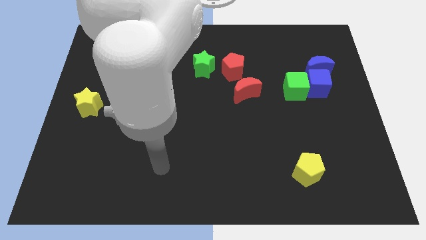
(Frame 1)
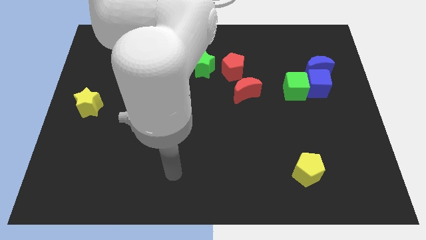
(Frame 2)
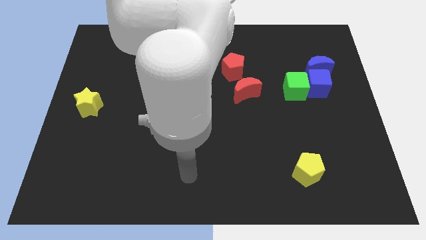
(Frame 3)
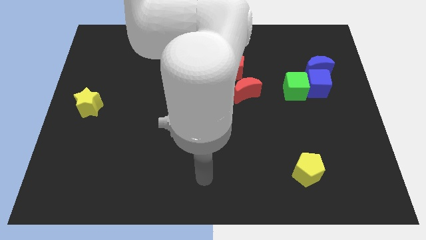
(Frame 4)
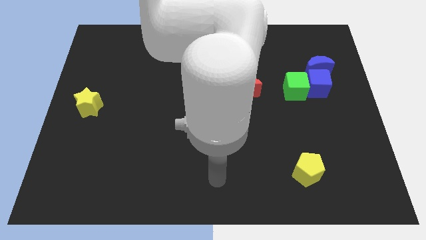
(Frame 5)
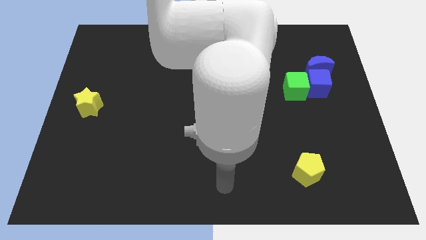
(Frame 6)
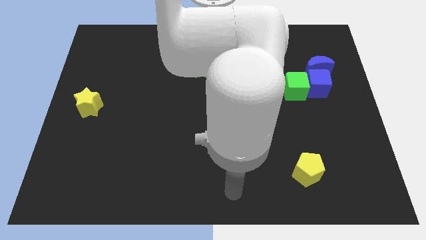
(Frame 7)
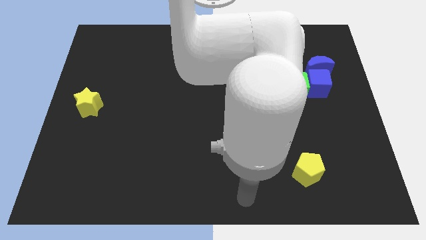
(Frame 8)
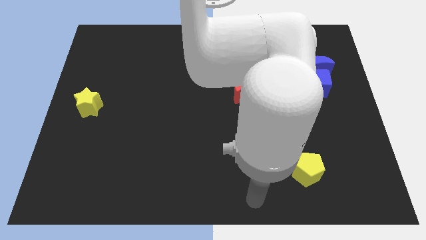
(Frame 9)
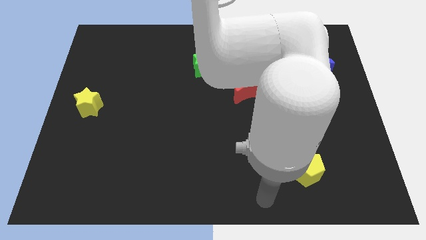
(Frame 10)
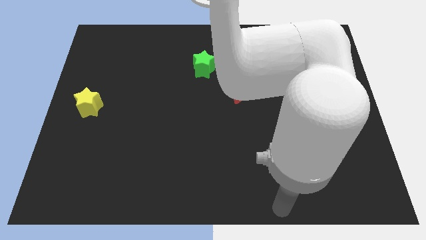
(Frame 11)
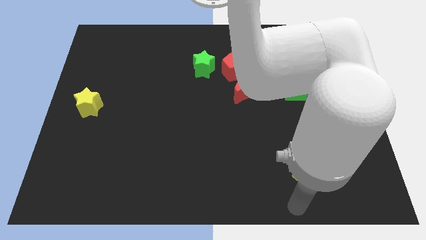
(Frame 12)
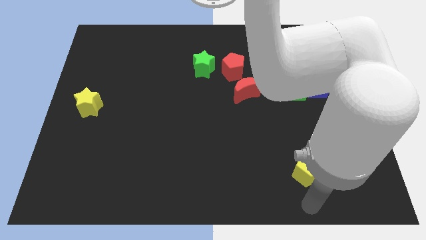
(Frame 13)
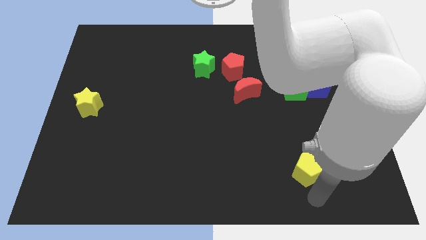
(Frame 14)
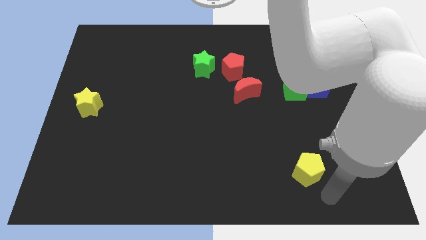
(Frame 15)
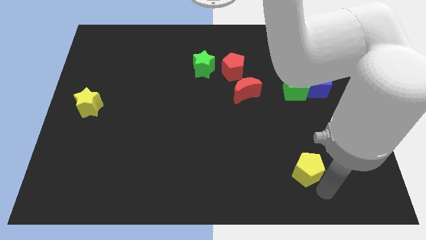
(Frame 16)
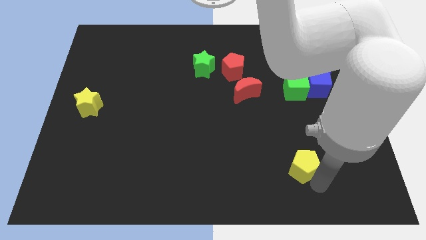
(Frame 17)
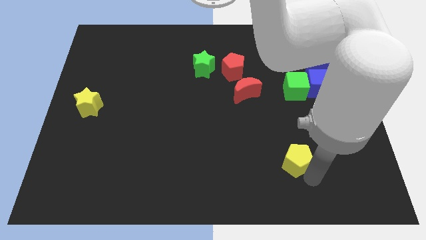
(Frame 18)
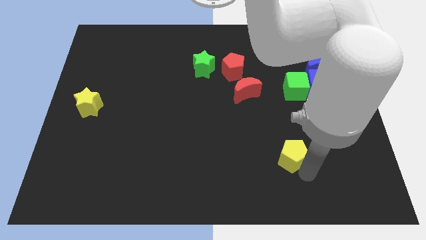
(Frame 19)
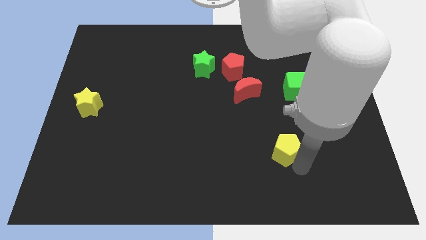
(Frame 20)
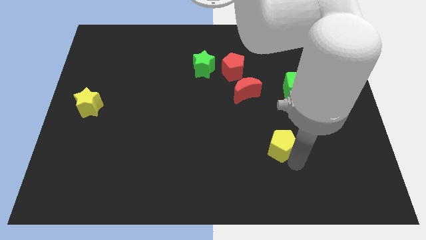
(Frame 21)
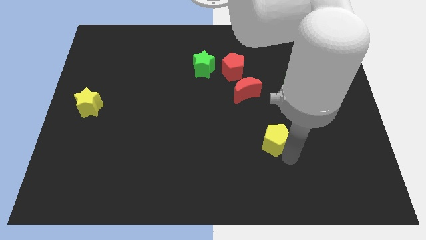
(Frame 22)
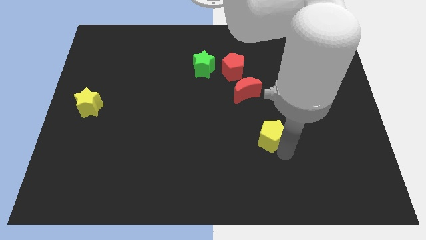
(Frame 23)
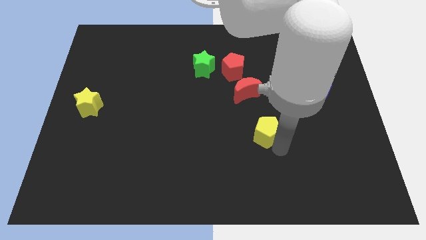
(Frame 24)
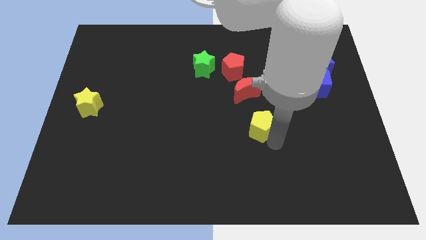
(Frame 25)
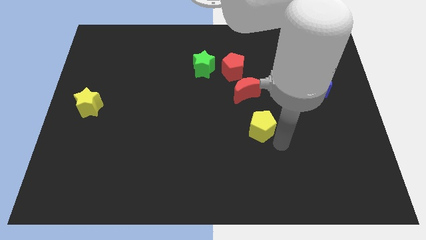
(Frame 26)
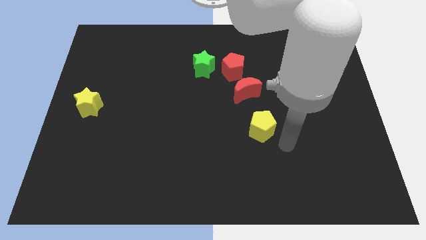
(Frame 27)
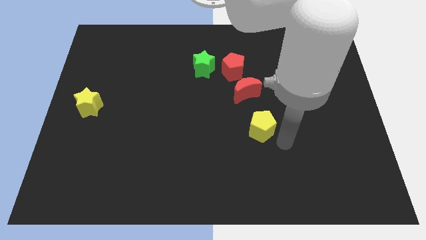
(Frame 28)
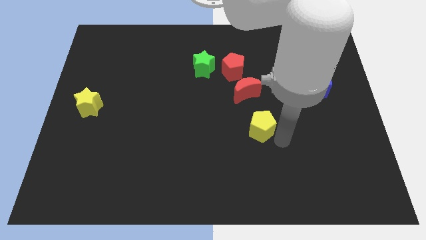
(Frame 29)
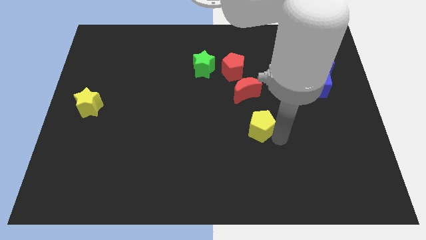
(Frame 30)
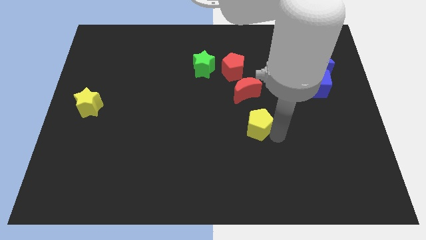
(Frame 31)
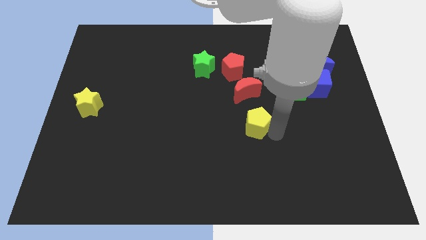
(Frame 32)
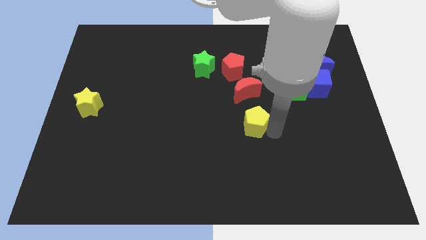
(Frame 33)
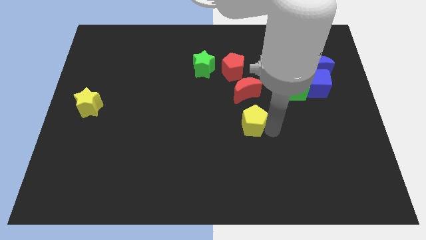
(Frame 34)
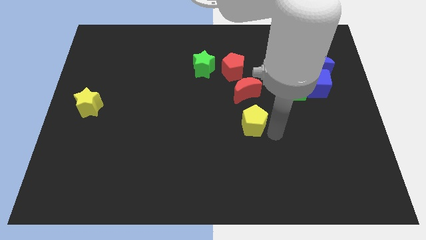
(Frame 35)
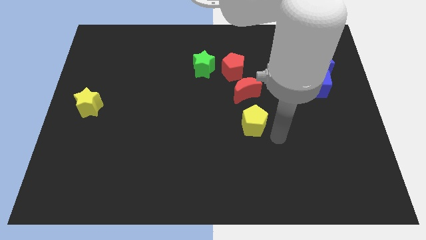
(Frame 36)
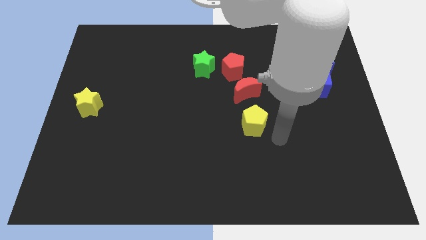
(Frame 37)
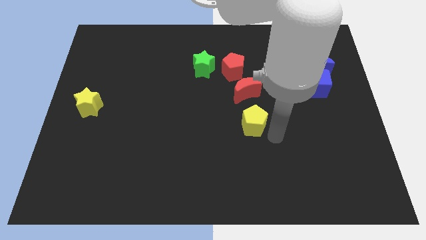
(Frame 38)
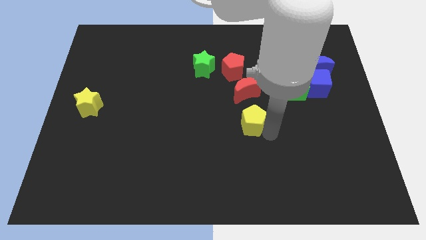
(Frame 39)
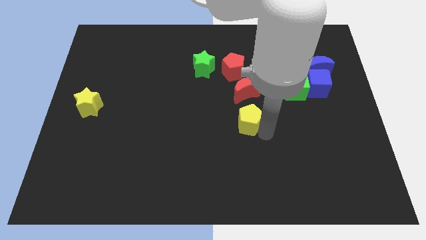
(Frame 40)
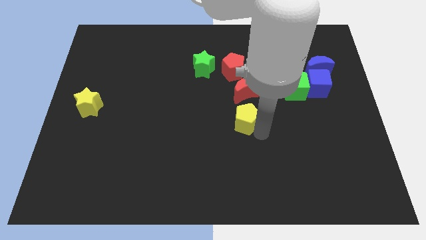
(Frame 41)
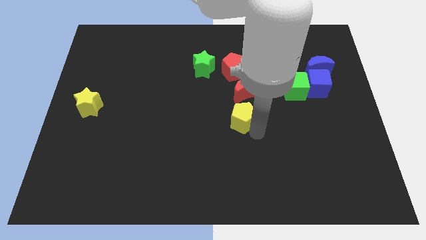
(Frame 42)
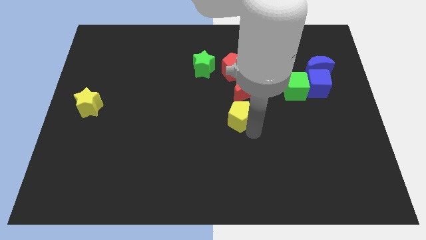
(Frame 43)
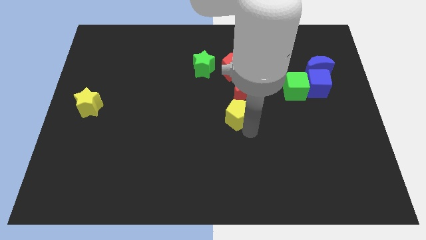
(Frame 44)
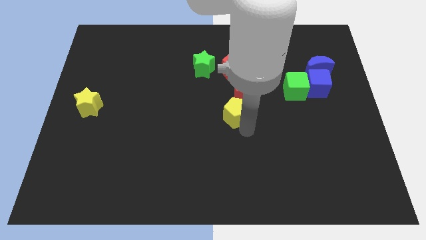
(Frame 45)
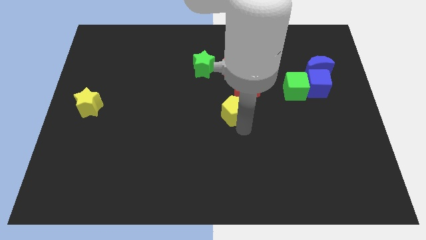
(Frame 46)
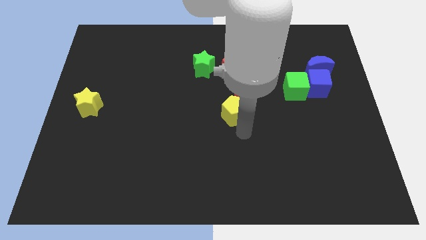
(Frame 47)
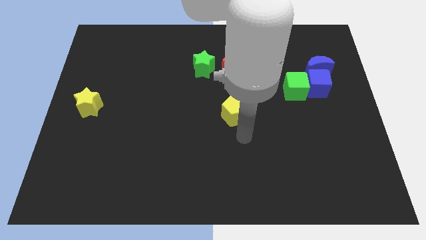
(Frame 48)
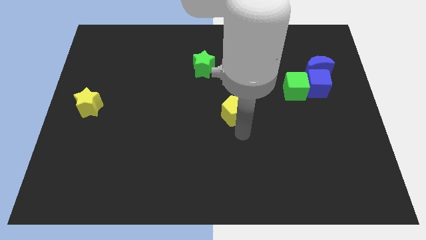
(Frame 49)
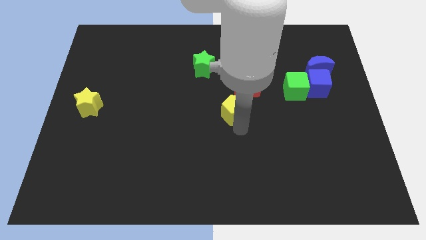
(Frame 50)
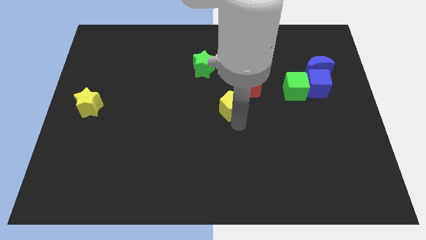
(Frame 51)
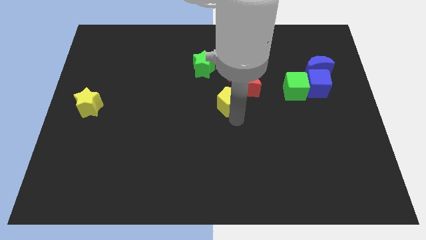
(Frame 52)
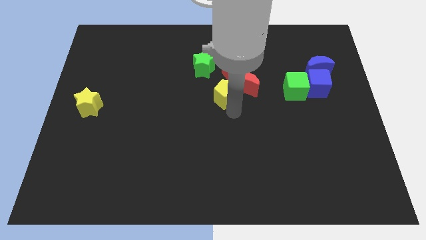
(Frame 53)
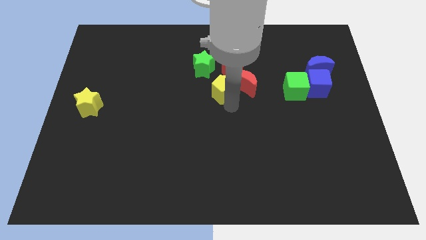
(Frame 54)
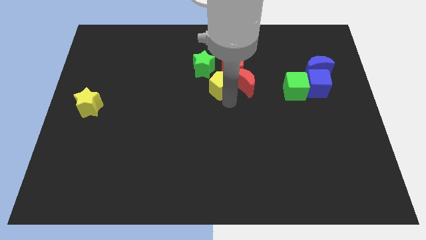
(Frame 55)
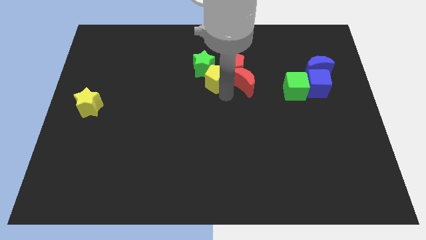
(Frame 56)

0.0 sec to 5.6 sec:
slide the yellow pentagon close to the green star

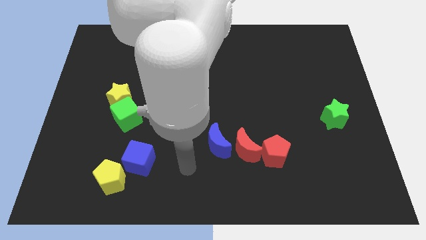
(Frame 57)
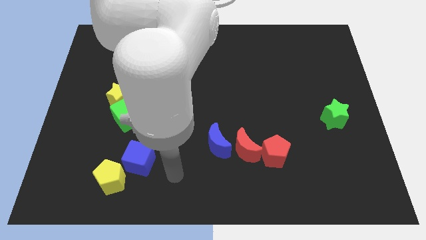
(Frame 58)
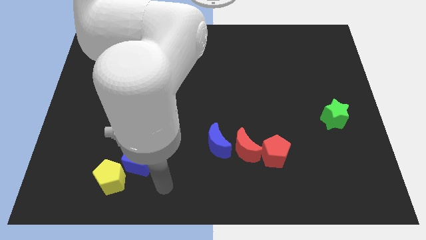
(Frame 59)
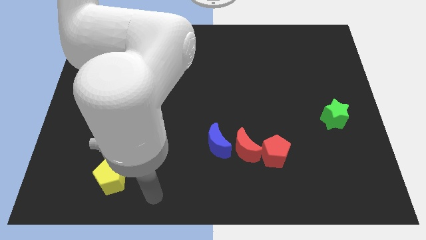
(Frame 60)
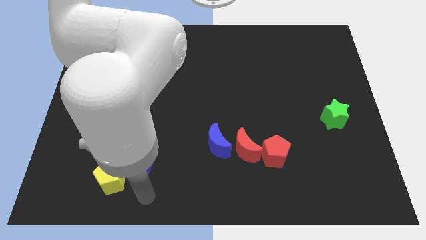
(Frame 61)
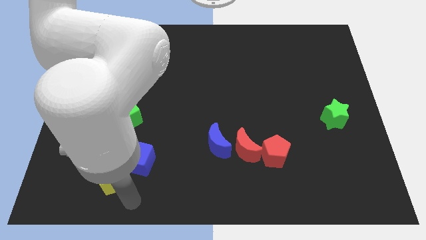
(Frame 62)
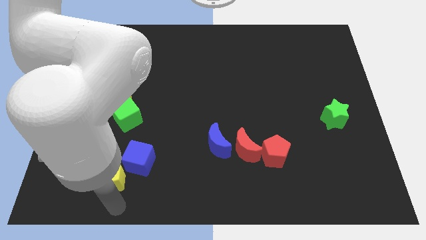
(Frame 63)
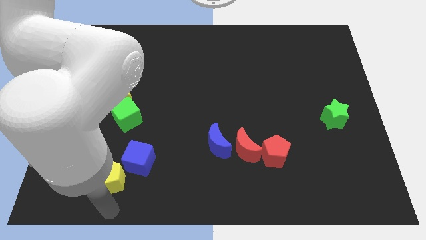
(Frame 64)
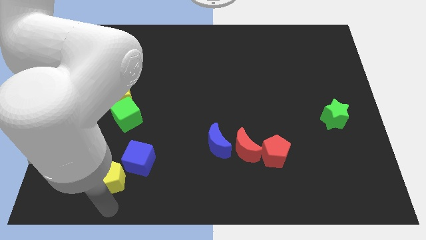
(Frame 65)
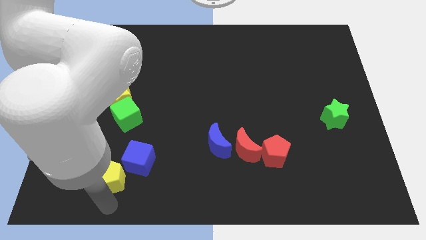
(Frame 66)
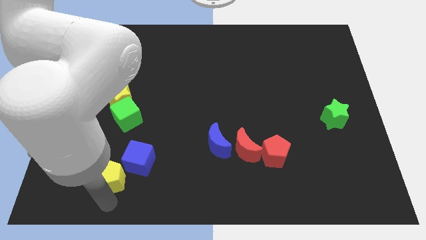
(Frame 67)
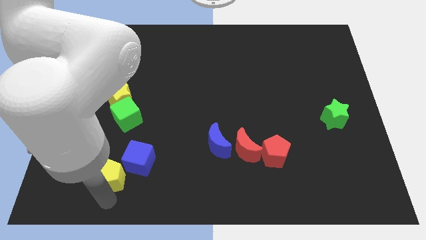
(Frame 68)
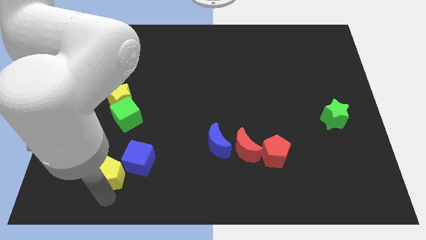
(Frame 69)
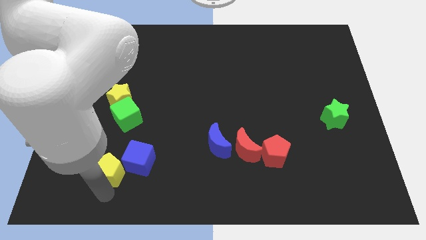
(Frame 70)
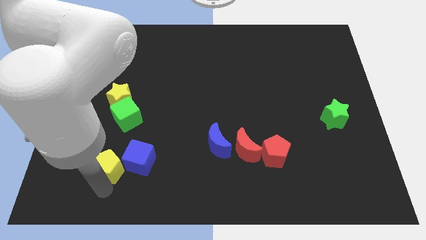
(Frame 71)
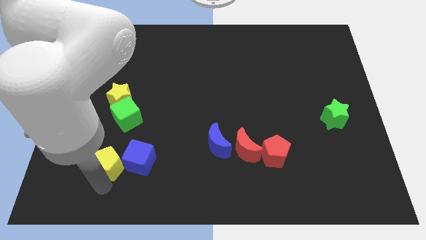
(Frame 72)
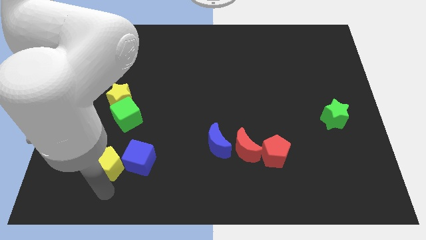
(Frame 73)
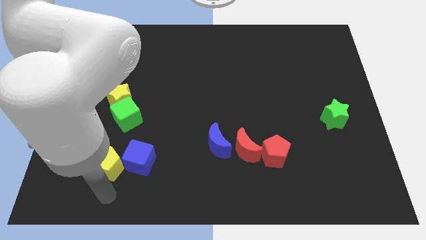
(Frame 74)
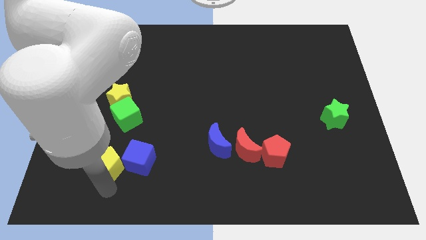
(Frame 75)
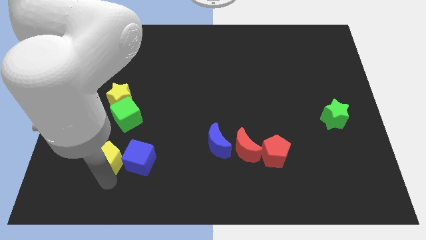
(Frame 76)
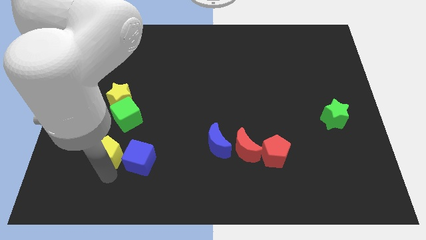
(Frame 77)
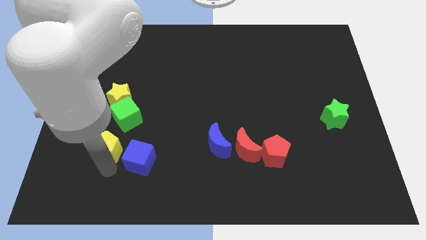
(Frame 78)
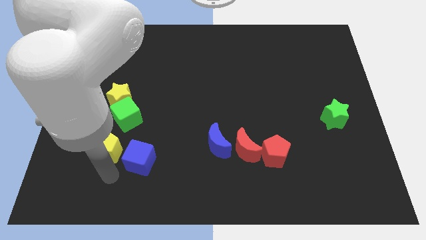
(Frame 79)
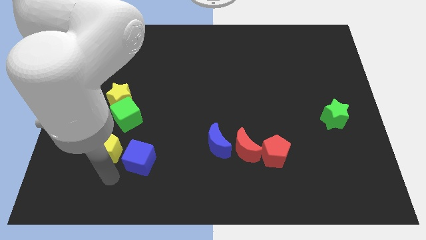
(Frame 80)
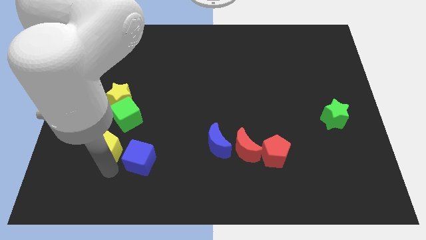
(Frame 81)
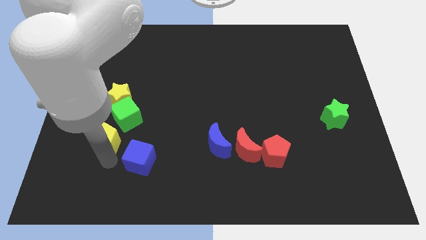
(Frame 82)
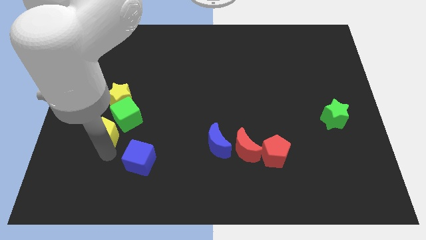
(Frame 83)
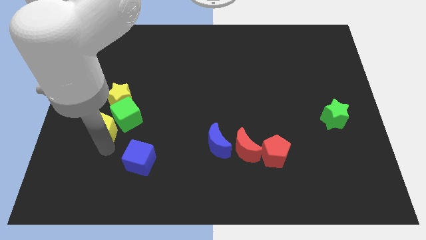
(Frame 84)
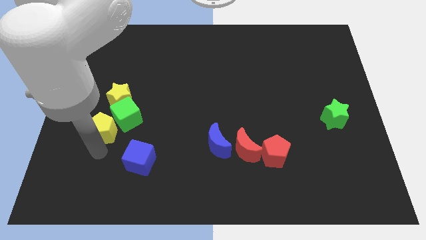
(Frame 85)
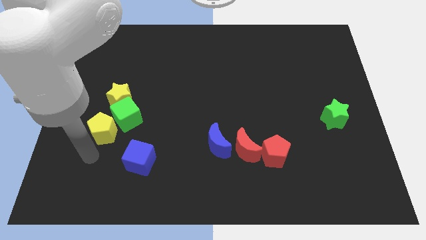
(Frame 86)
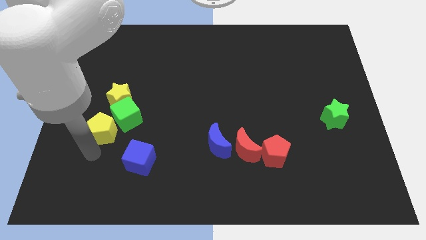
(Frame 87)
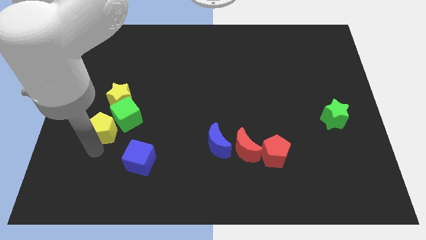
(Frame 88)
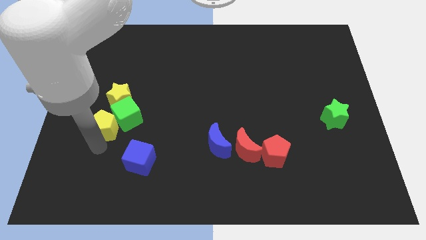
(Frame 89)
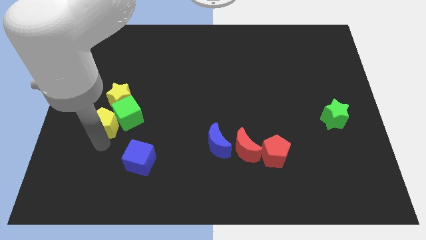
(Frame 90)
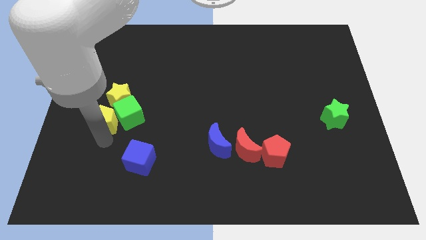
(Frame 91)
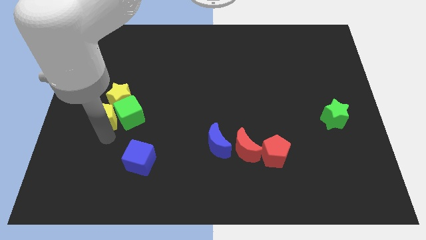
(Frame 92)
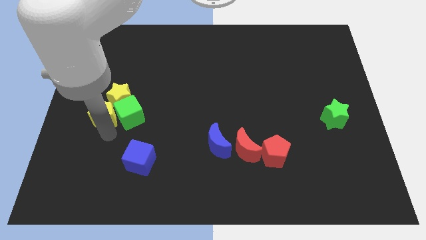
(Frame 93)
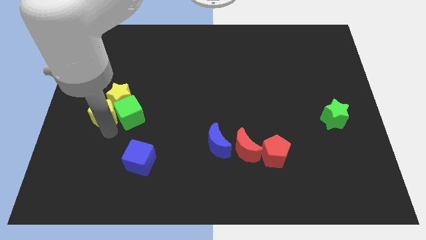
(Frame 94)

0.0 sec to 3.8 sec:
push the yellow pentagon towards the yellow star
